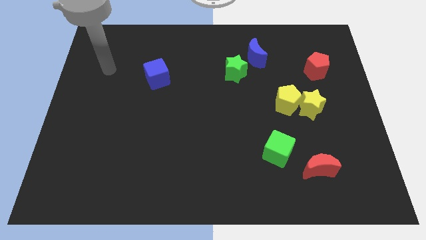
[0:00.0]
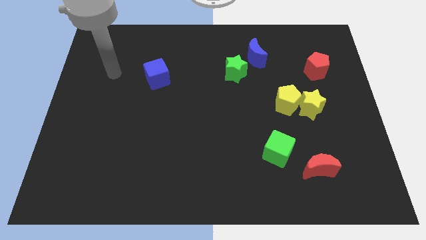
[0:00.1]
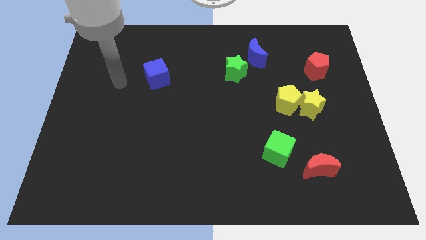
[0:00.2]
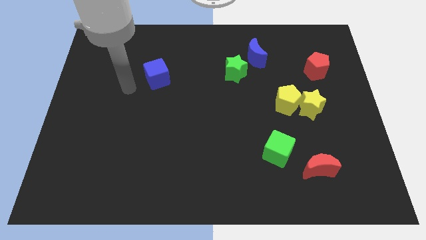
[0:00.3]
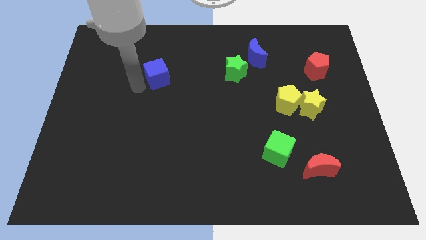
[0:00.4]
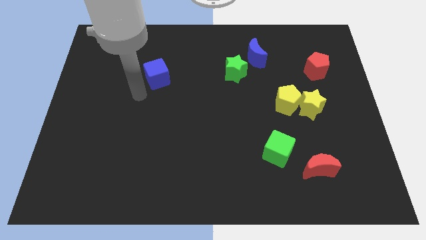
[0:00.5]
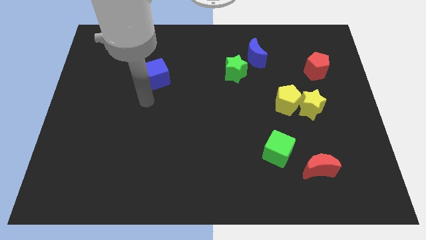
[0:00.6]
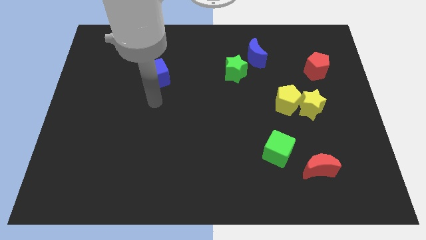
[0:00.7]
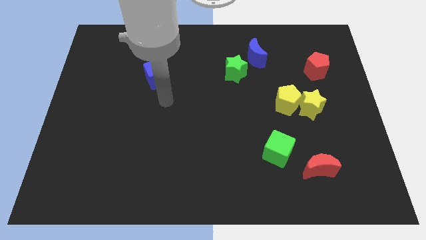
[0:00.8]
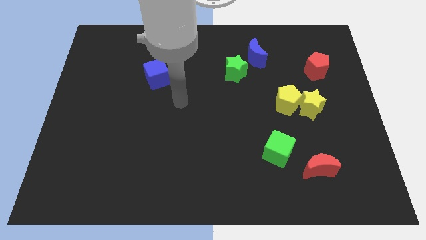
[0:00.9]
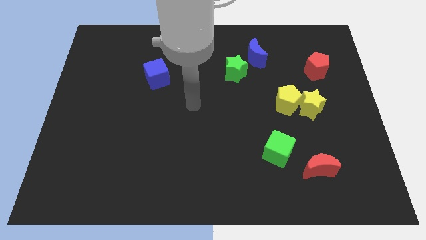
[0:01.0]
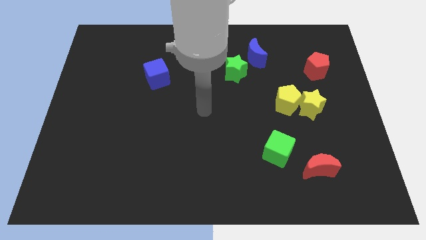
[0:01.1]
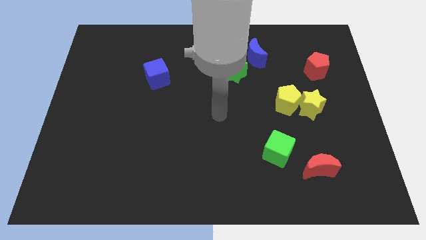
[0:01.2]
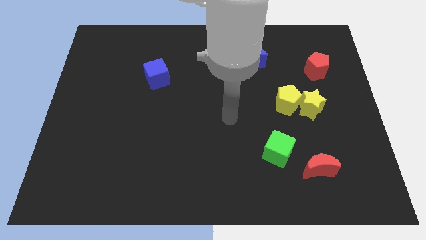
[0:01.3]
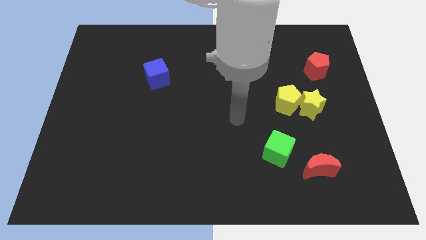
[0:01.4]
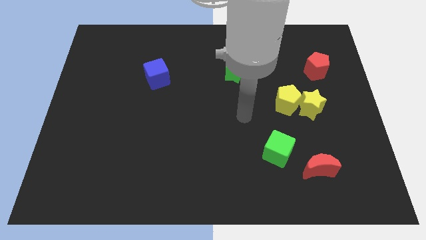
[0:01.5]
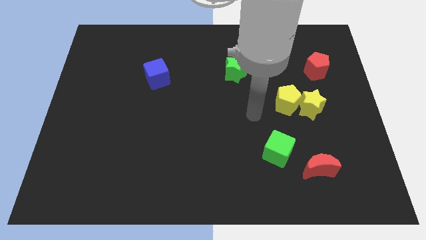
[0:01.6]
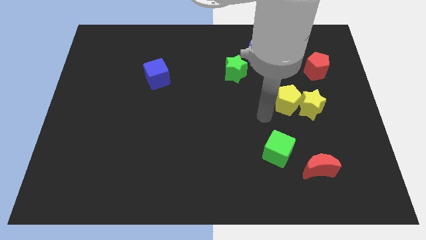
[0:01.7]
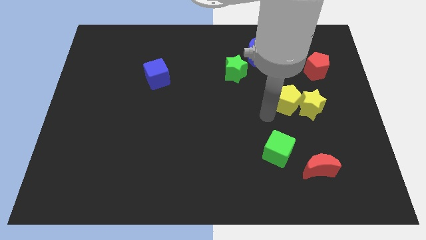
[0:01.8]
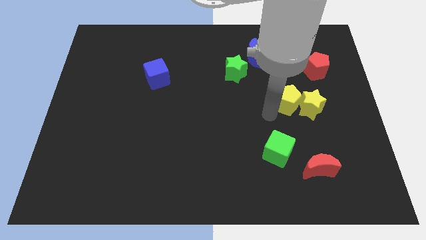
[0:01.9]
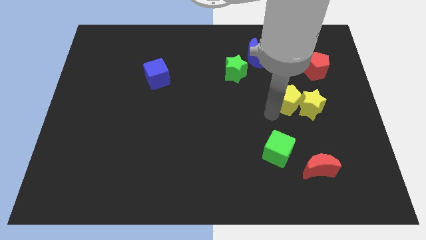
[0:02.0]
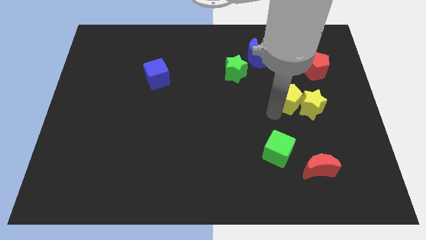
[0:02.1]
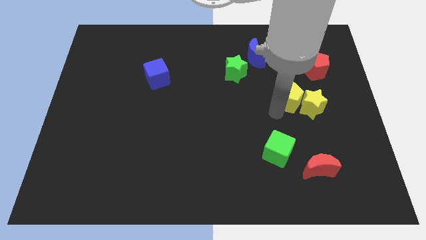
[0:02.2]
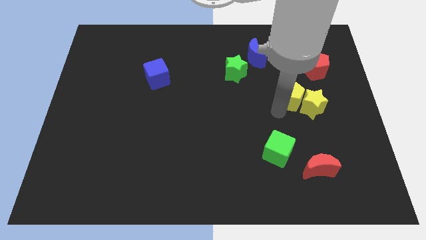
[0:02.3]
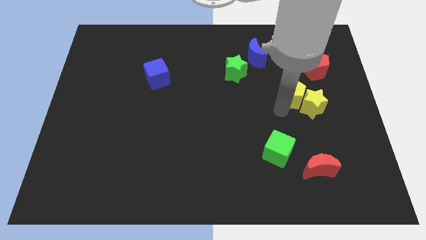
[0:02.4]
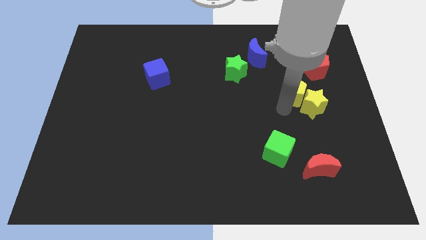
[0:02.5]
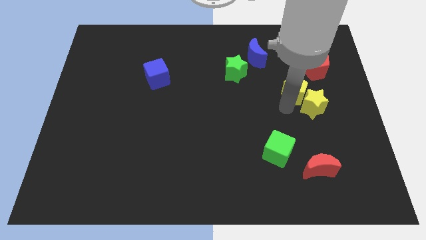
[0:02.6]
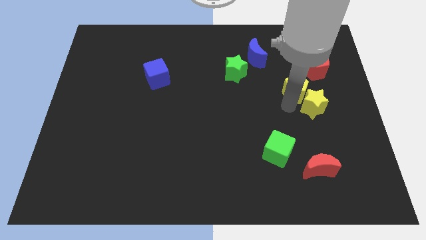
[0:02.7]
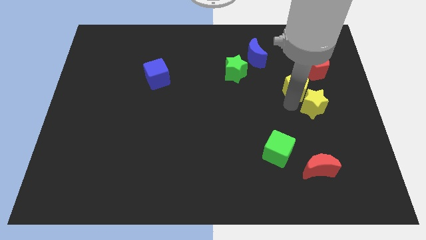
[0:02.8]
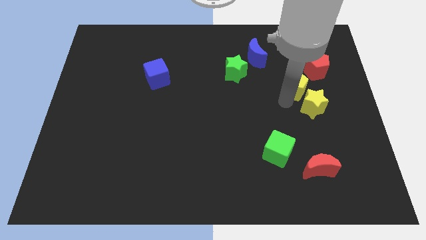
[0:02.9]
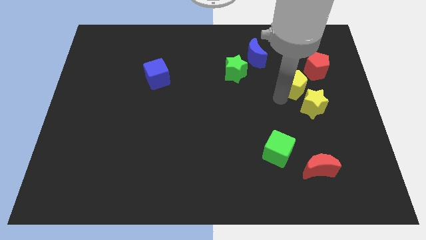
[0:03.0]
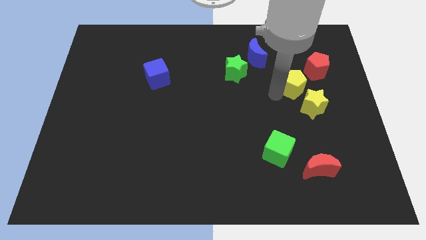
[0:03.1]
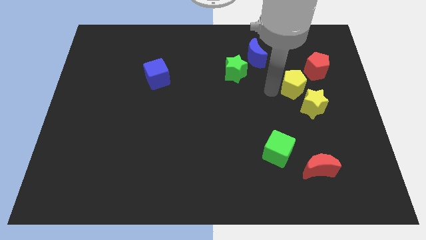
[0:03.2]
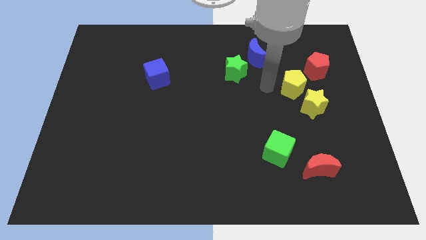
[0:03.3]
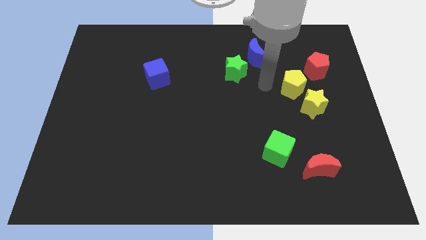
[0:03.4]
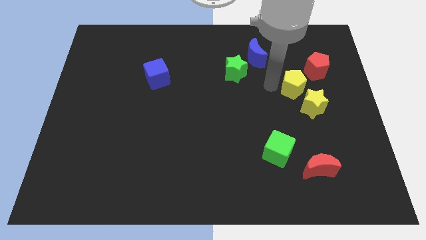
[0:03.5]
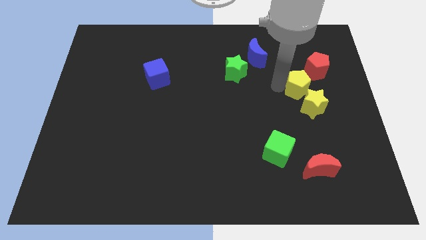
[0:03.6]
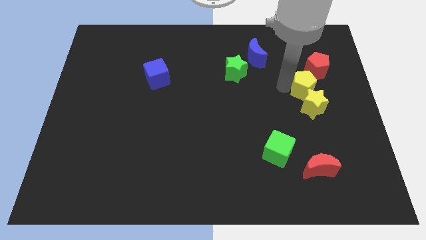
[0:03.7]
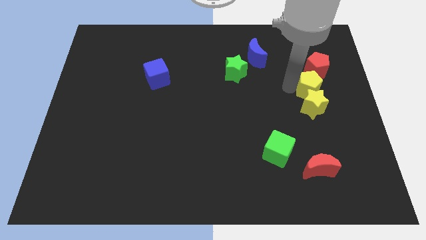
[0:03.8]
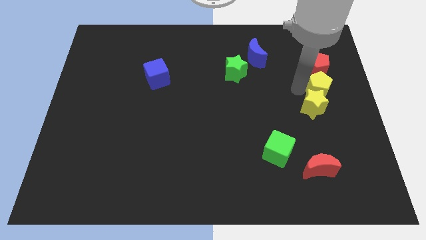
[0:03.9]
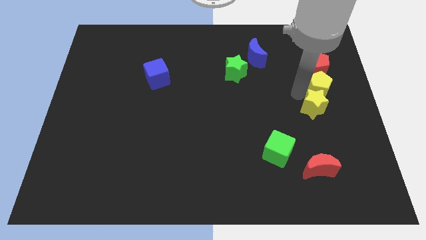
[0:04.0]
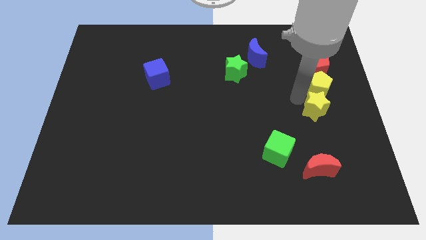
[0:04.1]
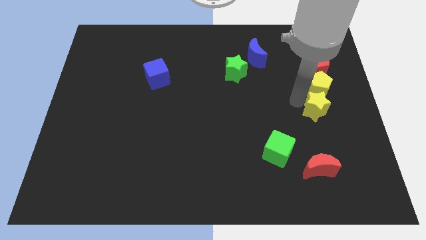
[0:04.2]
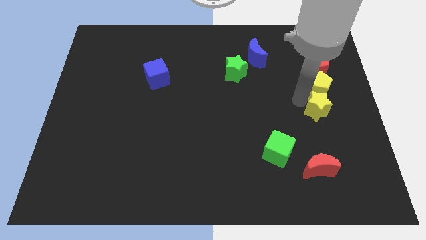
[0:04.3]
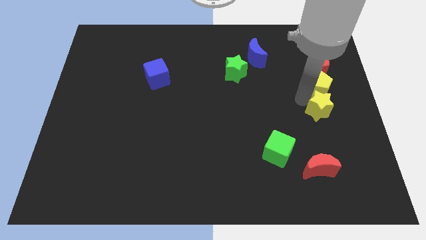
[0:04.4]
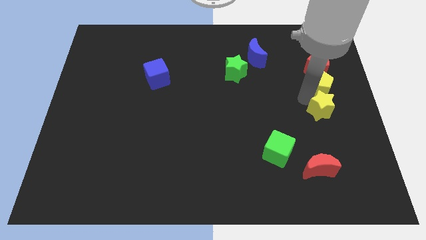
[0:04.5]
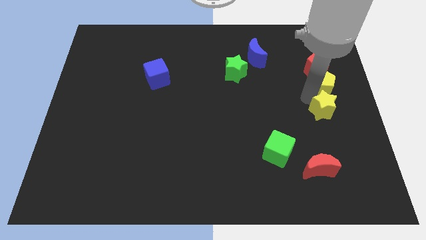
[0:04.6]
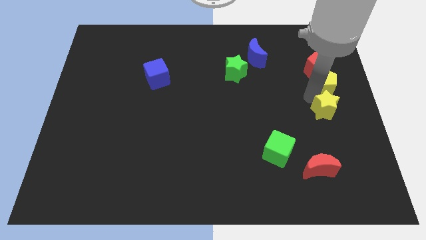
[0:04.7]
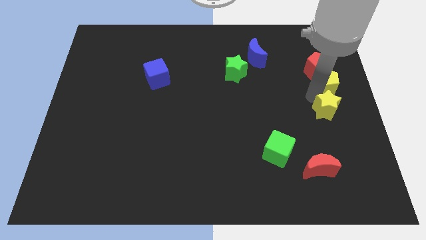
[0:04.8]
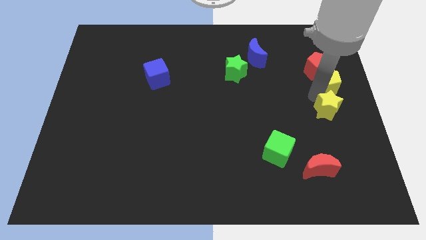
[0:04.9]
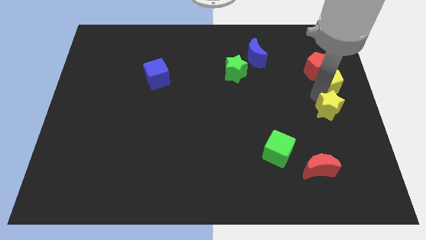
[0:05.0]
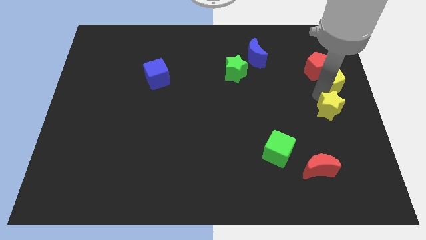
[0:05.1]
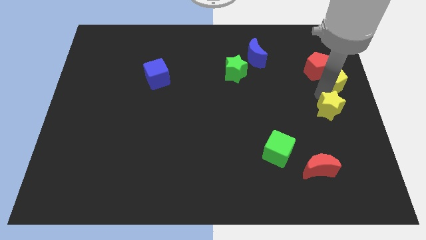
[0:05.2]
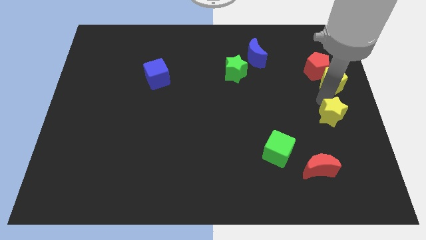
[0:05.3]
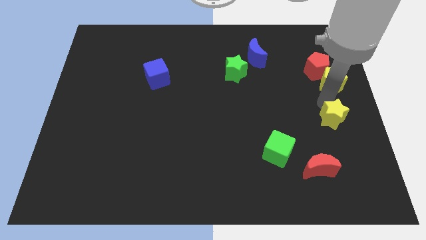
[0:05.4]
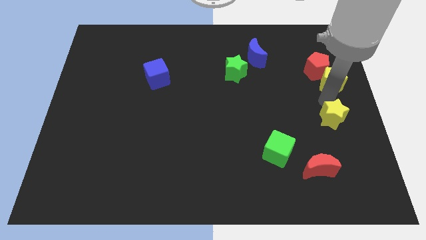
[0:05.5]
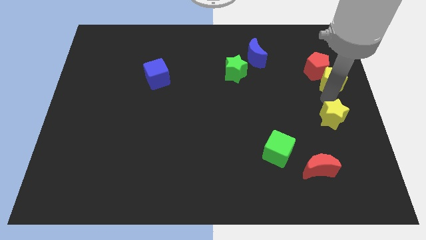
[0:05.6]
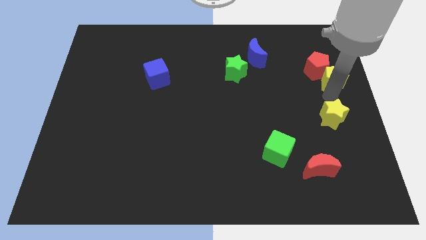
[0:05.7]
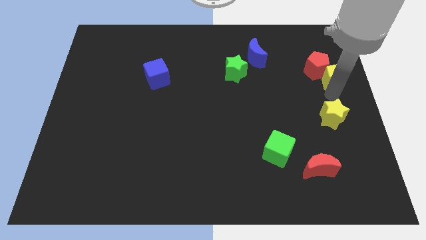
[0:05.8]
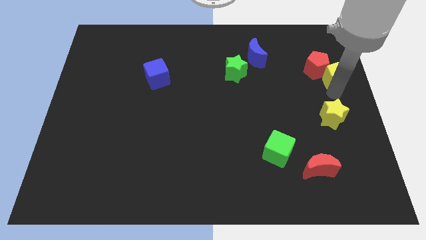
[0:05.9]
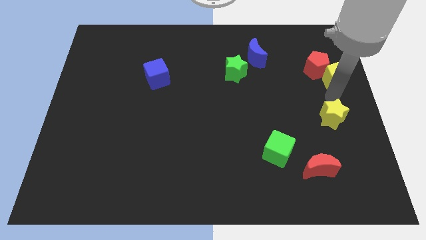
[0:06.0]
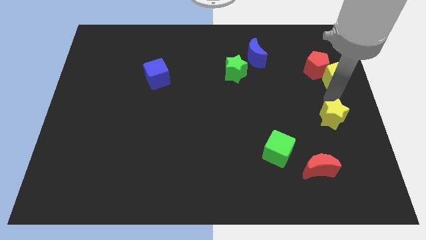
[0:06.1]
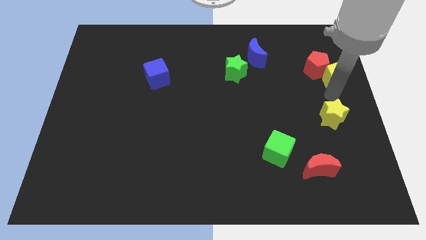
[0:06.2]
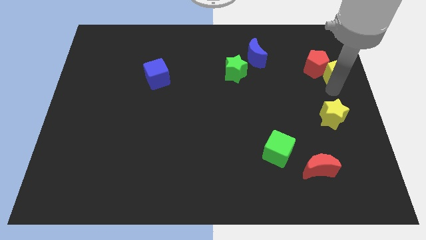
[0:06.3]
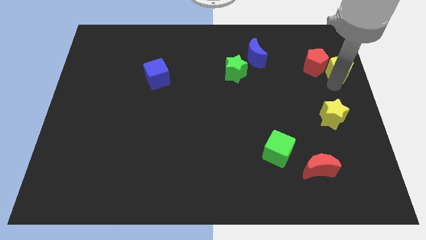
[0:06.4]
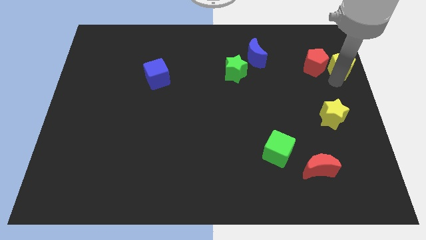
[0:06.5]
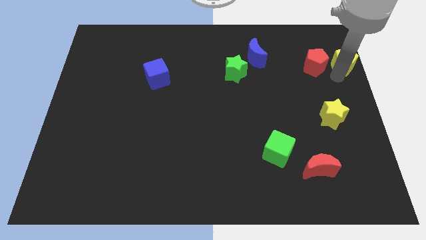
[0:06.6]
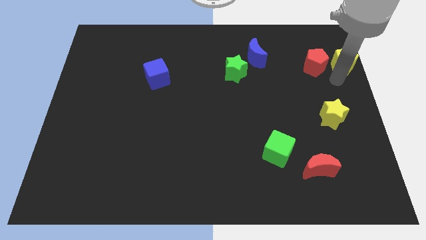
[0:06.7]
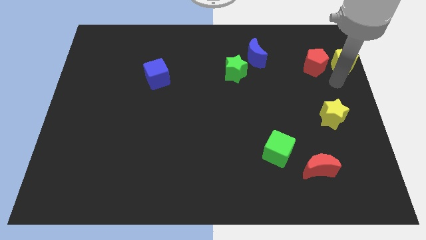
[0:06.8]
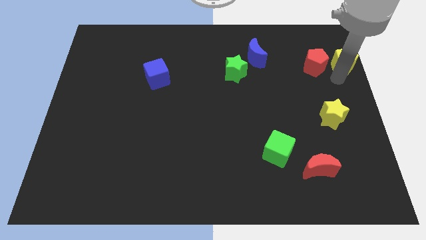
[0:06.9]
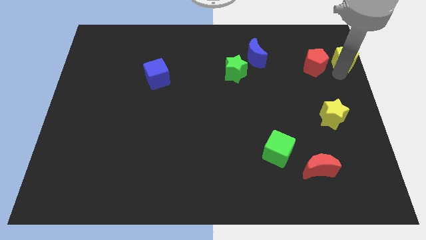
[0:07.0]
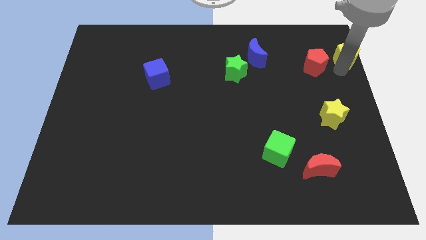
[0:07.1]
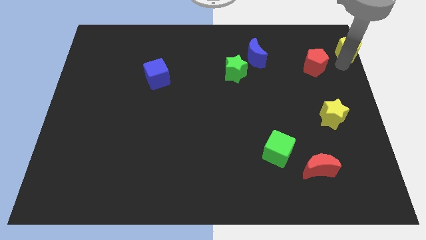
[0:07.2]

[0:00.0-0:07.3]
put the yellow pentagon to the upper right corner
